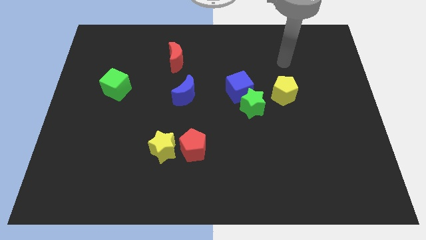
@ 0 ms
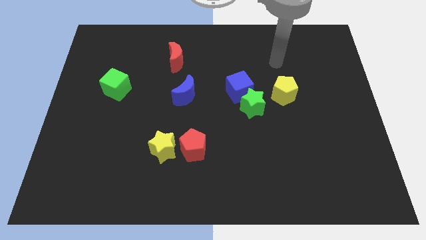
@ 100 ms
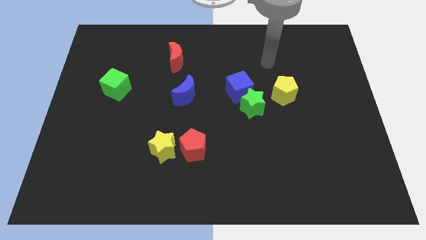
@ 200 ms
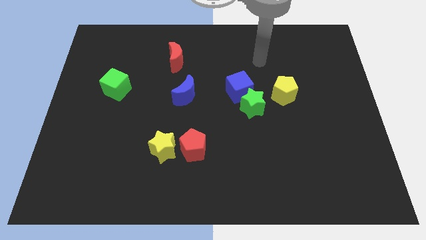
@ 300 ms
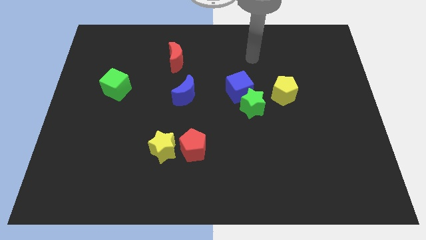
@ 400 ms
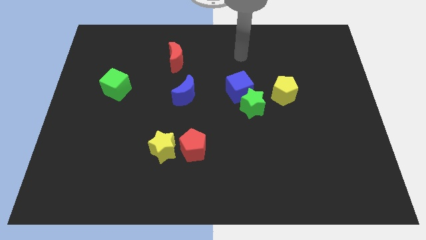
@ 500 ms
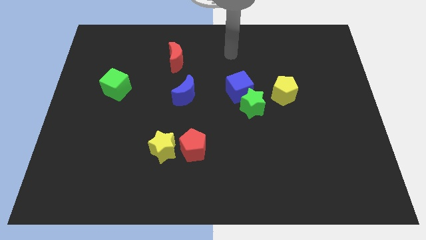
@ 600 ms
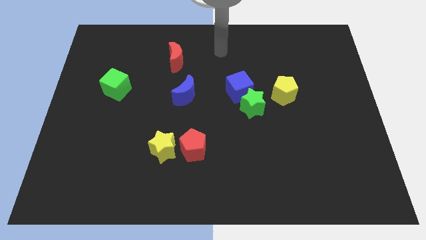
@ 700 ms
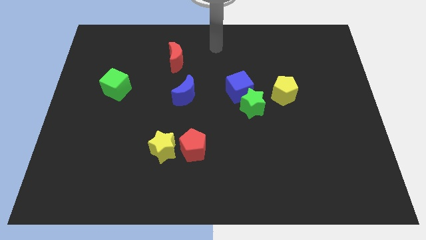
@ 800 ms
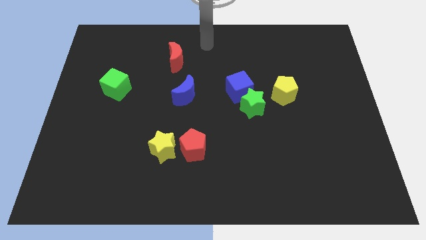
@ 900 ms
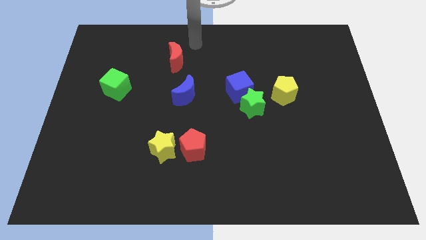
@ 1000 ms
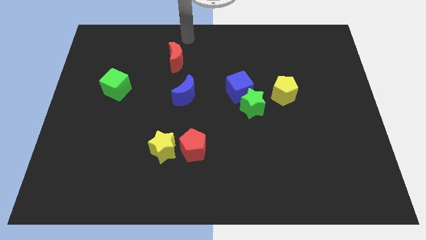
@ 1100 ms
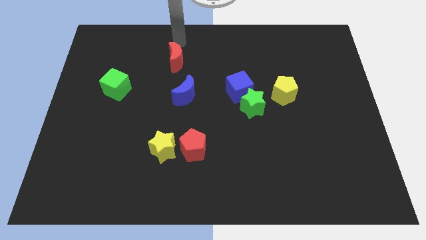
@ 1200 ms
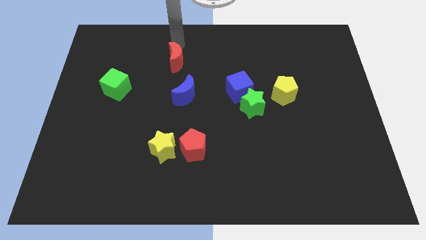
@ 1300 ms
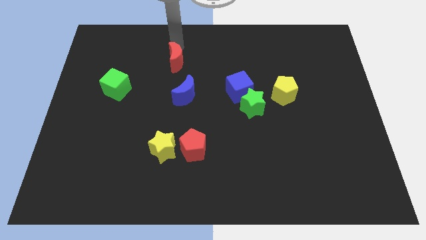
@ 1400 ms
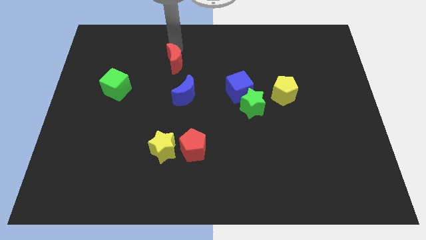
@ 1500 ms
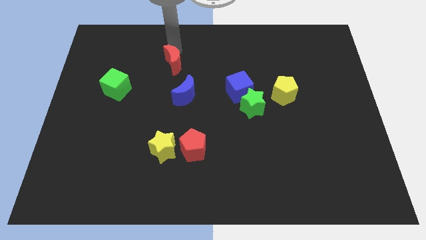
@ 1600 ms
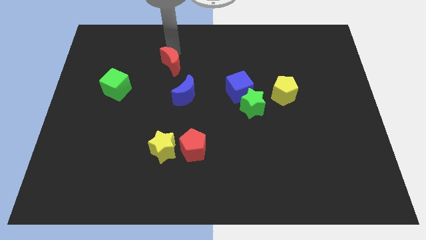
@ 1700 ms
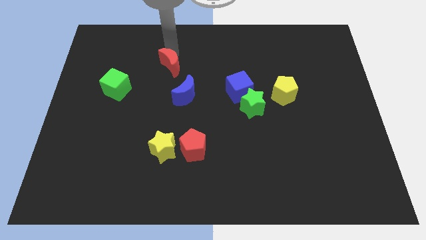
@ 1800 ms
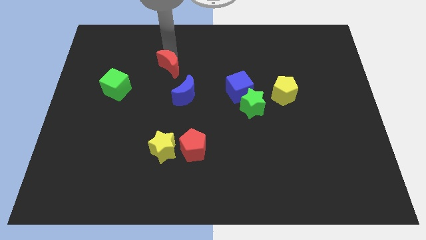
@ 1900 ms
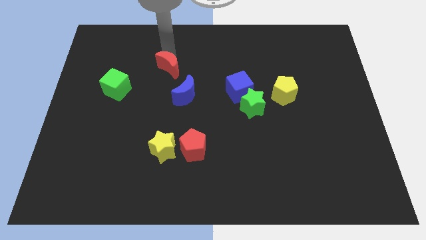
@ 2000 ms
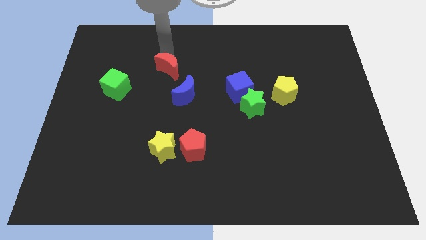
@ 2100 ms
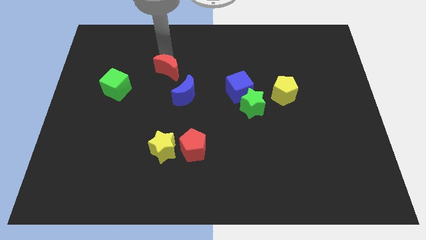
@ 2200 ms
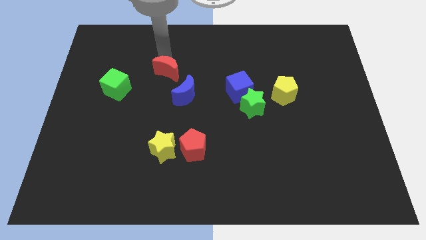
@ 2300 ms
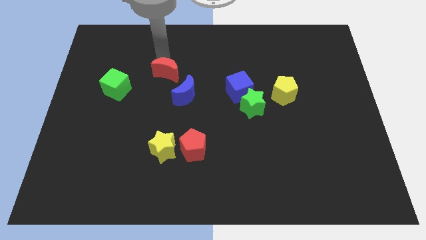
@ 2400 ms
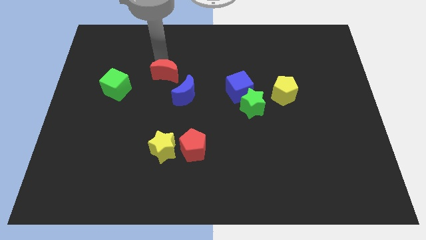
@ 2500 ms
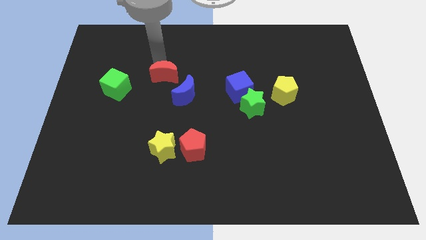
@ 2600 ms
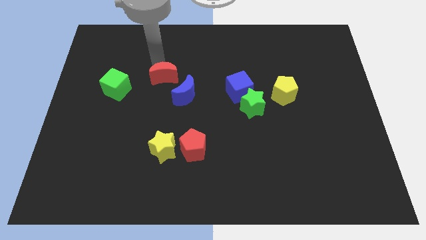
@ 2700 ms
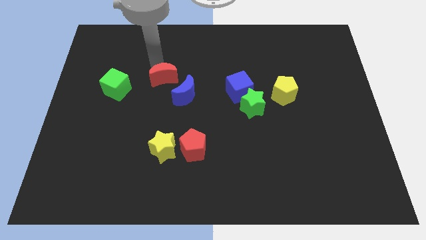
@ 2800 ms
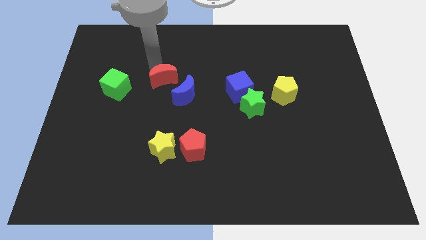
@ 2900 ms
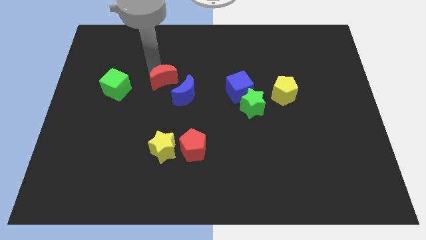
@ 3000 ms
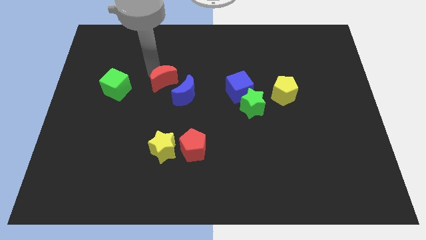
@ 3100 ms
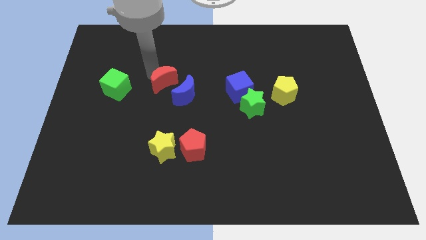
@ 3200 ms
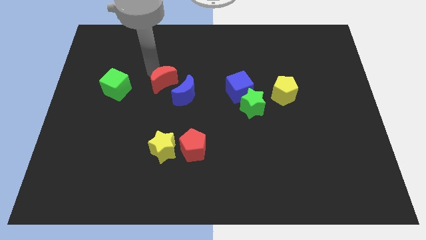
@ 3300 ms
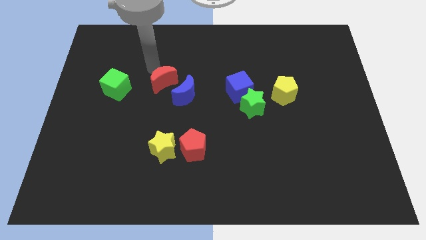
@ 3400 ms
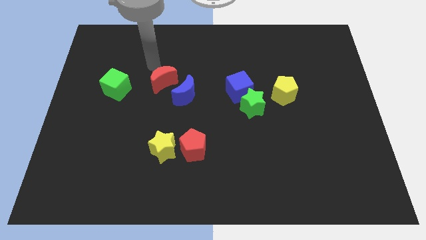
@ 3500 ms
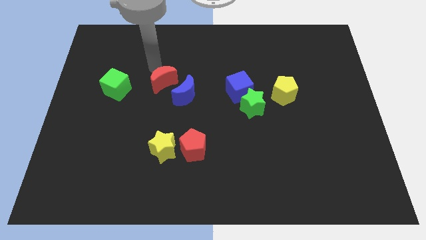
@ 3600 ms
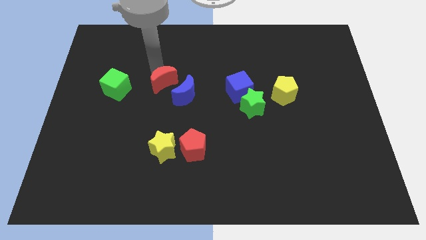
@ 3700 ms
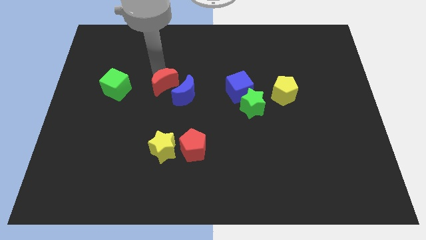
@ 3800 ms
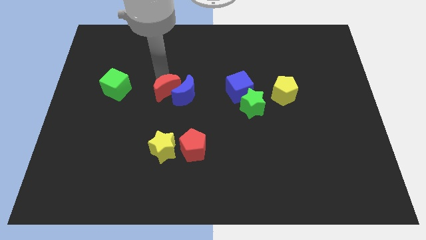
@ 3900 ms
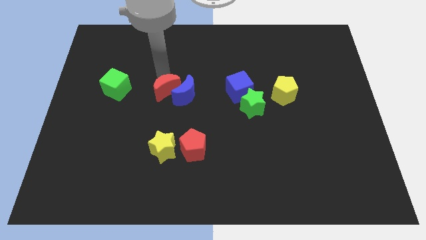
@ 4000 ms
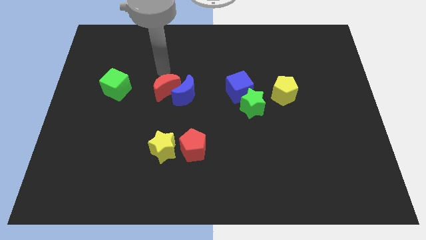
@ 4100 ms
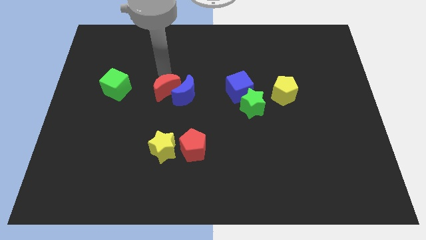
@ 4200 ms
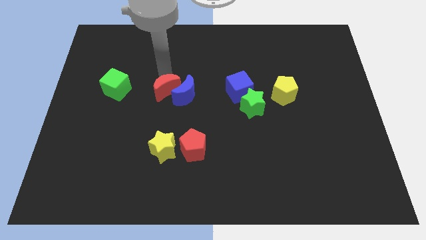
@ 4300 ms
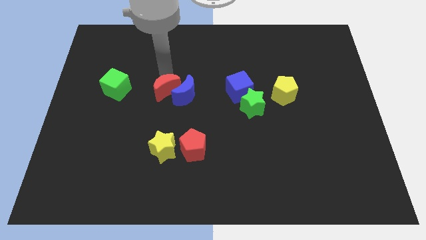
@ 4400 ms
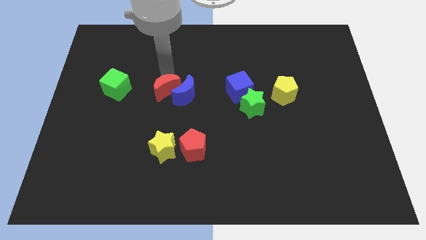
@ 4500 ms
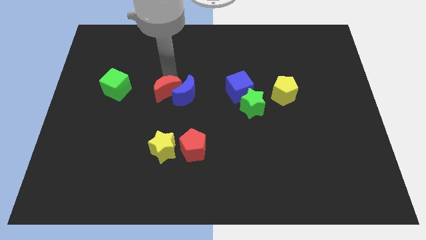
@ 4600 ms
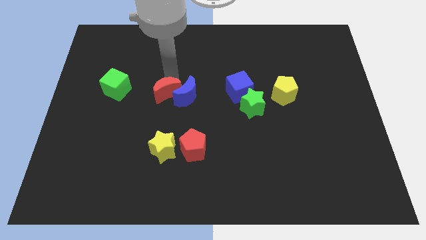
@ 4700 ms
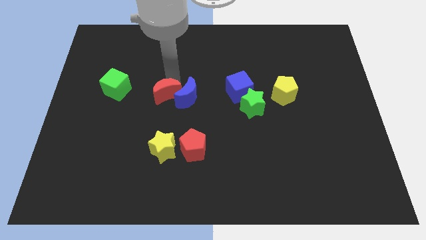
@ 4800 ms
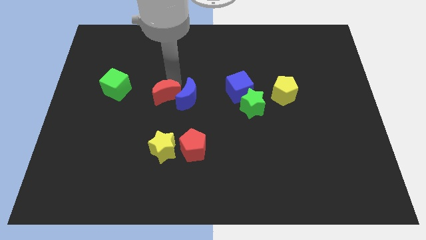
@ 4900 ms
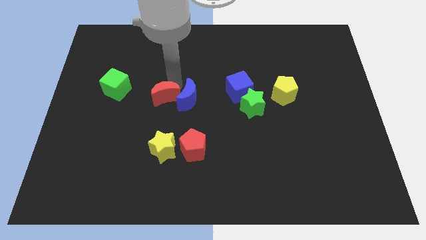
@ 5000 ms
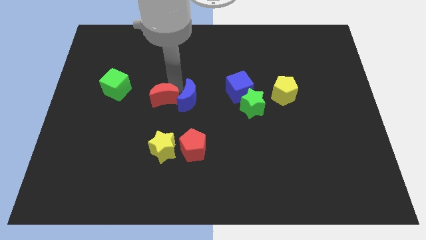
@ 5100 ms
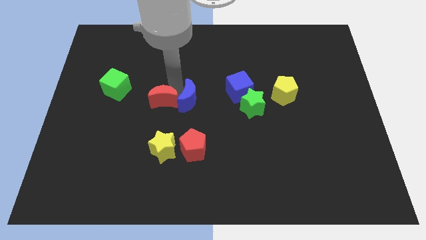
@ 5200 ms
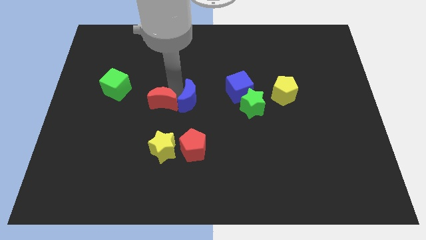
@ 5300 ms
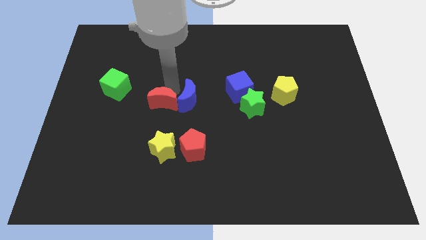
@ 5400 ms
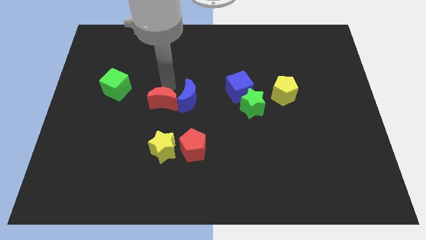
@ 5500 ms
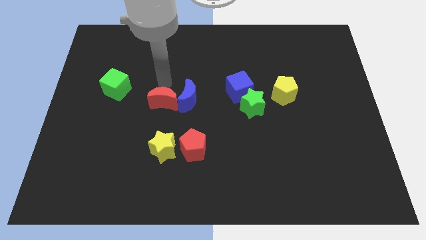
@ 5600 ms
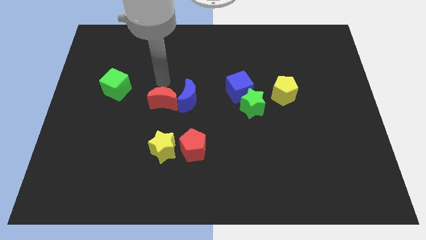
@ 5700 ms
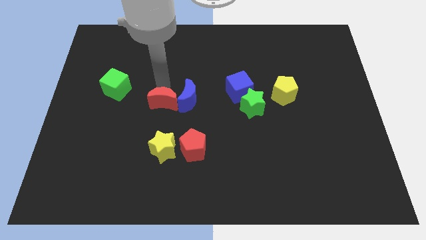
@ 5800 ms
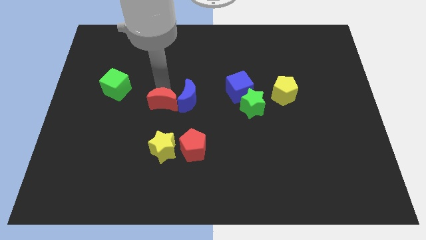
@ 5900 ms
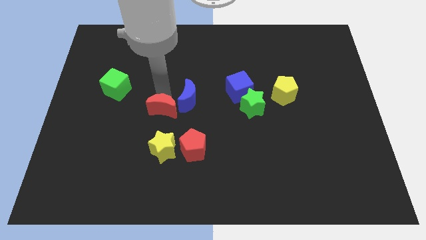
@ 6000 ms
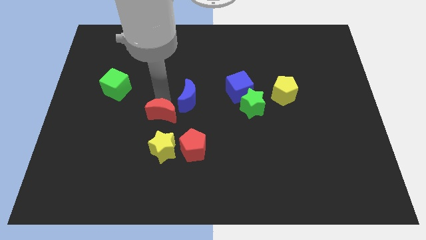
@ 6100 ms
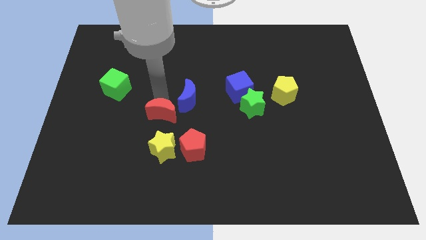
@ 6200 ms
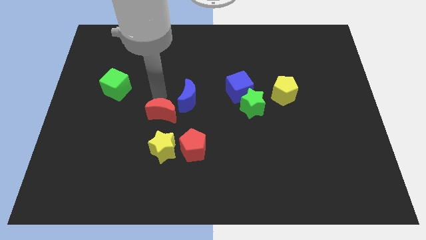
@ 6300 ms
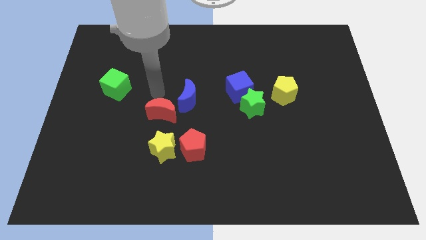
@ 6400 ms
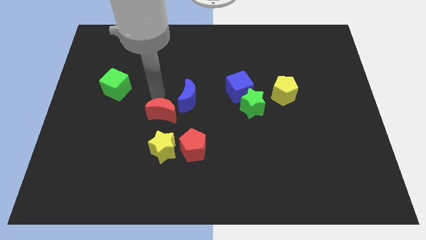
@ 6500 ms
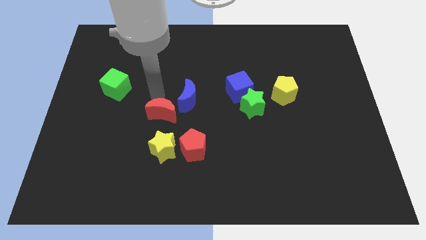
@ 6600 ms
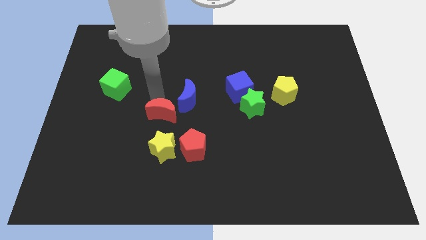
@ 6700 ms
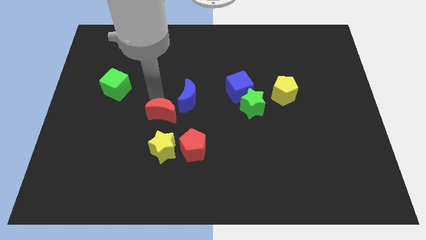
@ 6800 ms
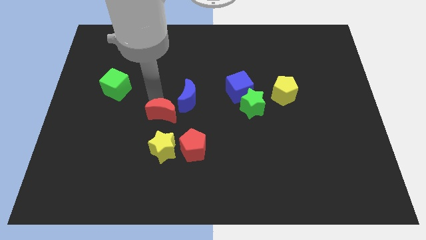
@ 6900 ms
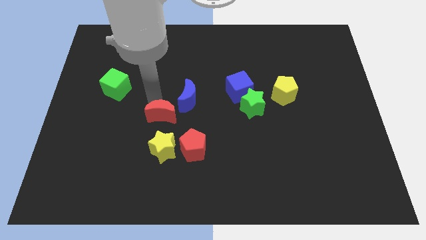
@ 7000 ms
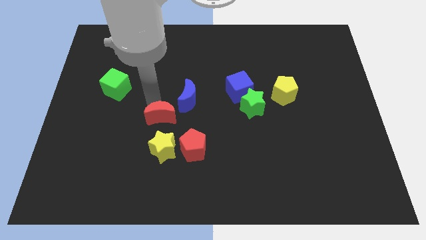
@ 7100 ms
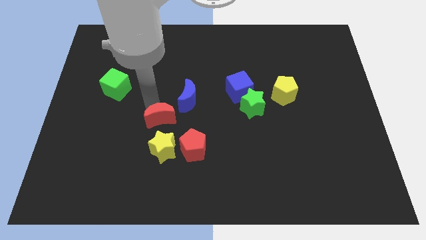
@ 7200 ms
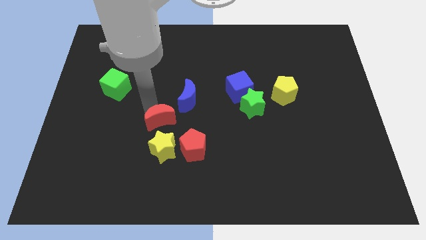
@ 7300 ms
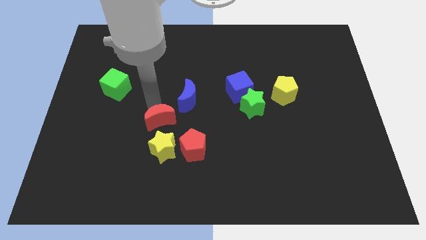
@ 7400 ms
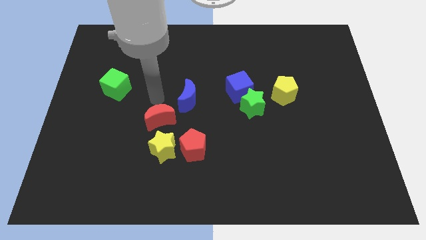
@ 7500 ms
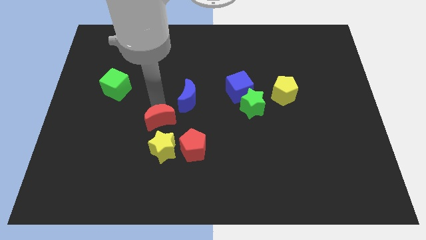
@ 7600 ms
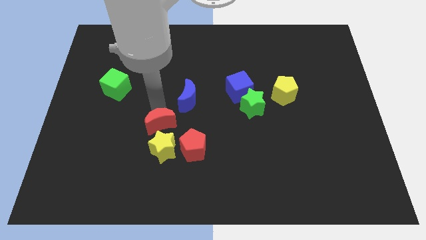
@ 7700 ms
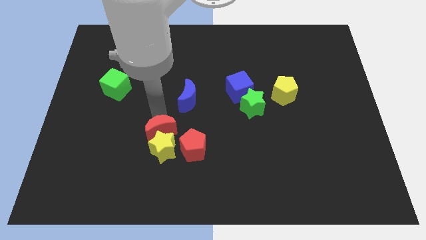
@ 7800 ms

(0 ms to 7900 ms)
push the red moon next to the yellow star
